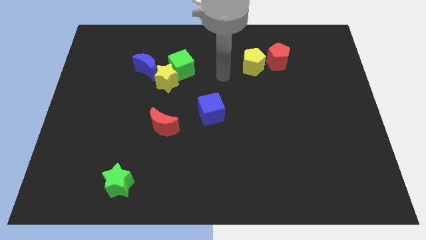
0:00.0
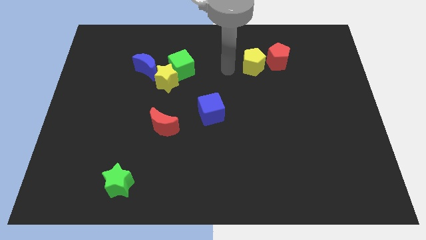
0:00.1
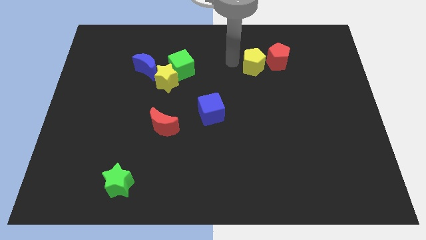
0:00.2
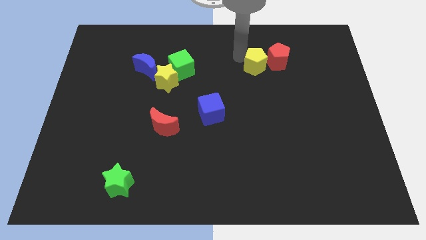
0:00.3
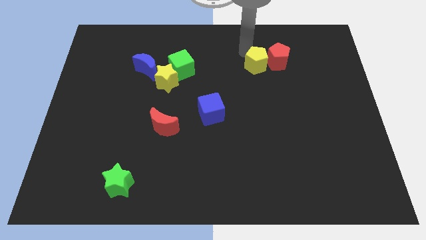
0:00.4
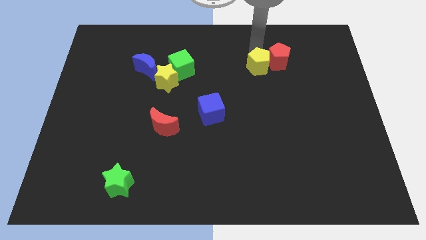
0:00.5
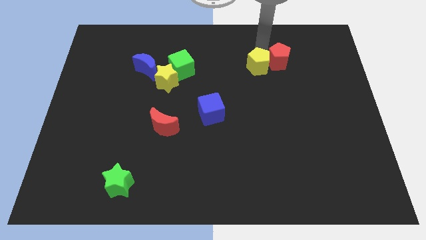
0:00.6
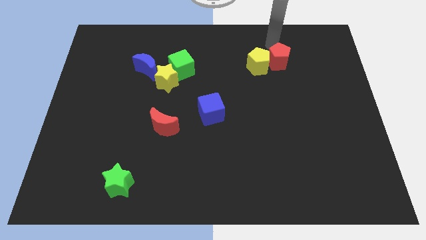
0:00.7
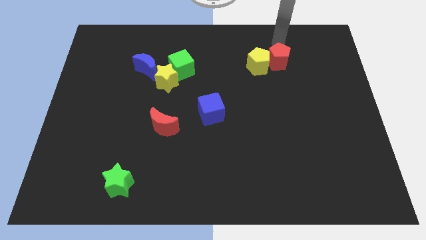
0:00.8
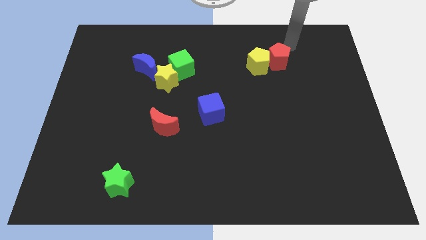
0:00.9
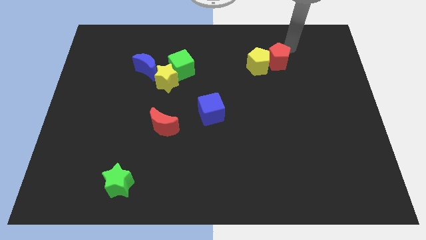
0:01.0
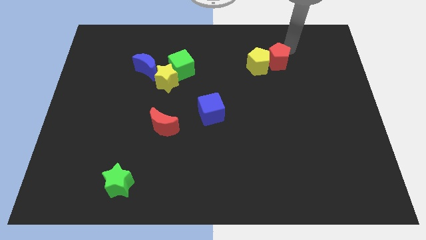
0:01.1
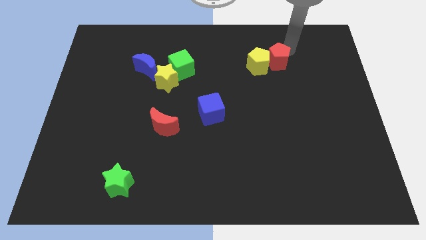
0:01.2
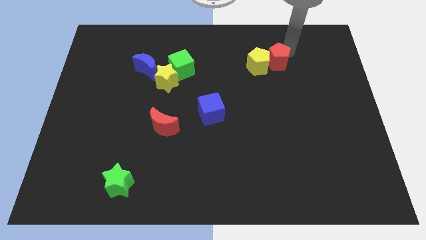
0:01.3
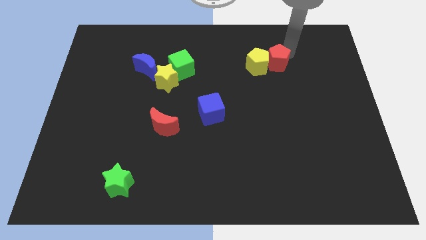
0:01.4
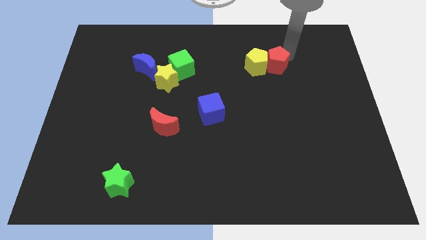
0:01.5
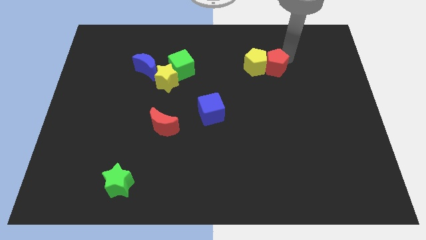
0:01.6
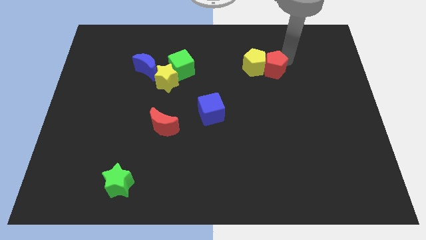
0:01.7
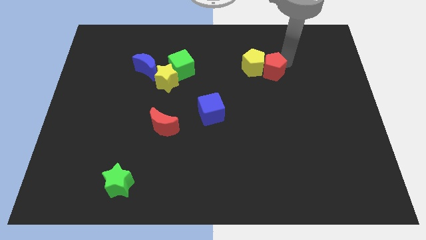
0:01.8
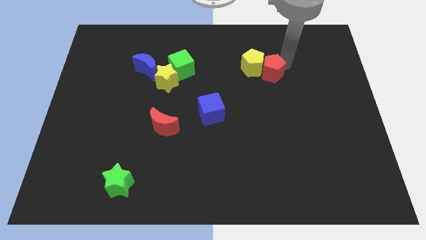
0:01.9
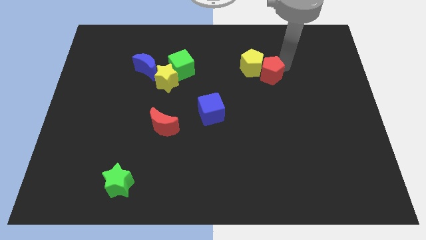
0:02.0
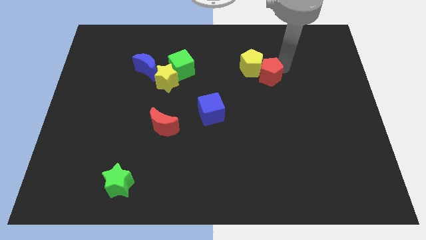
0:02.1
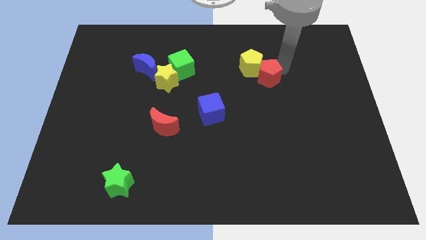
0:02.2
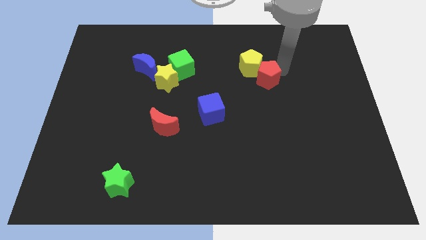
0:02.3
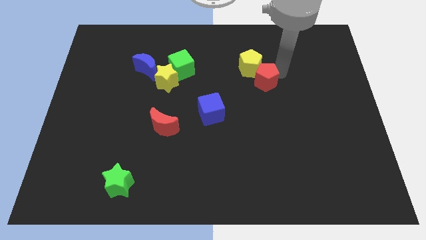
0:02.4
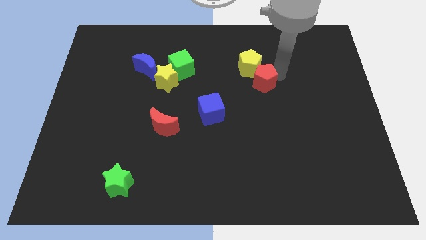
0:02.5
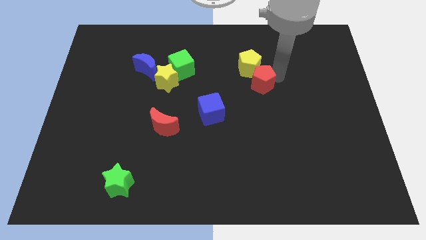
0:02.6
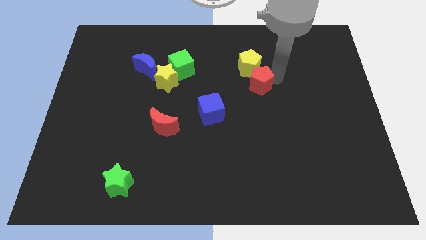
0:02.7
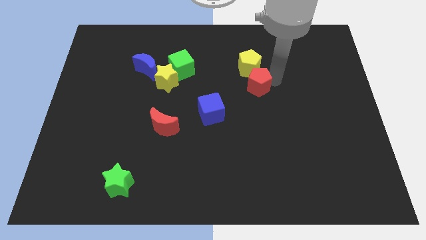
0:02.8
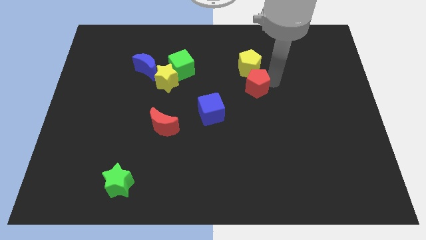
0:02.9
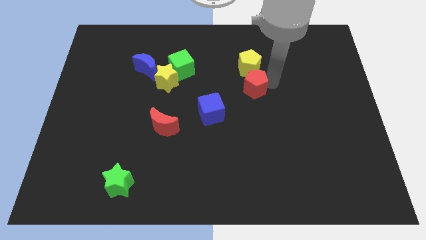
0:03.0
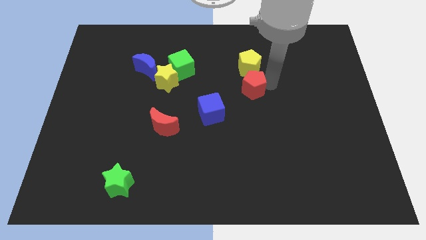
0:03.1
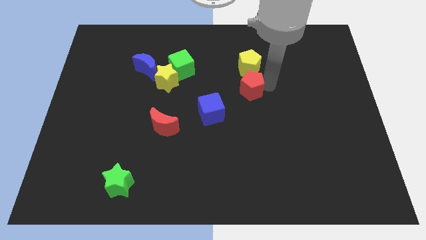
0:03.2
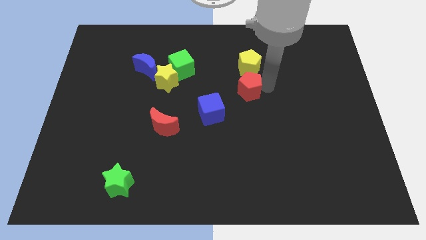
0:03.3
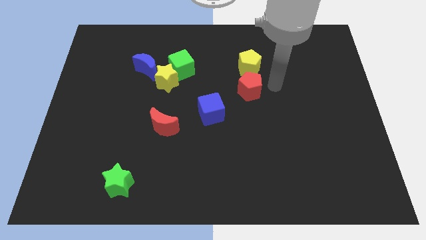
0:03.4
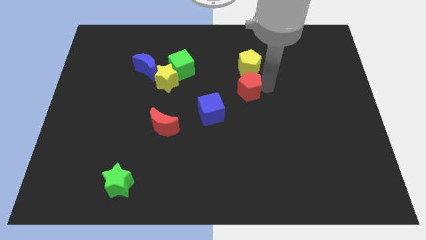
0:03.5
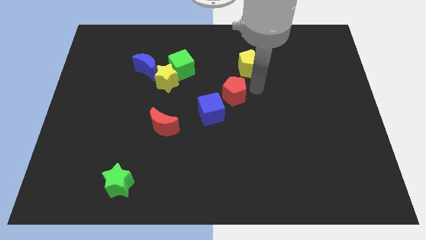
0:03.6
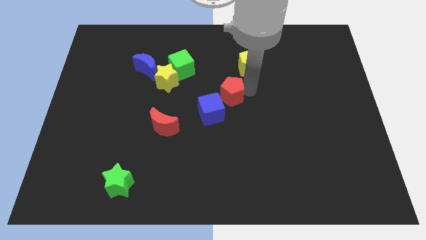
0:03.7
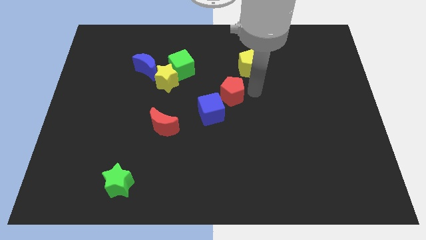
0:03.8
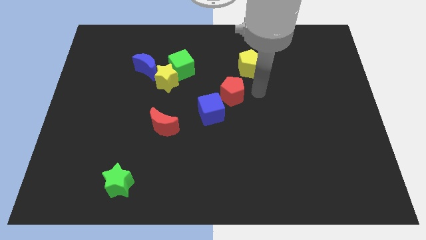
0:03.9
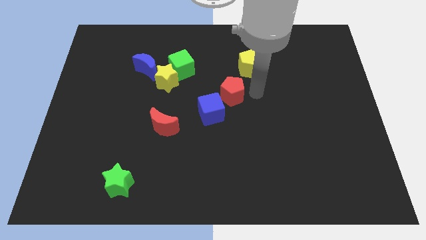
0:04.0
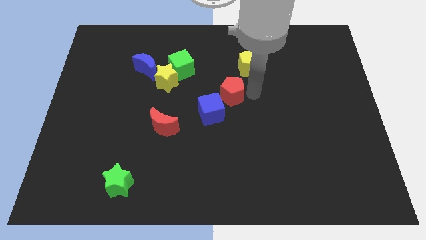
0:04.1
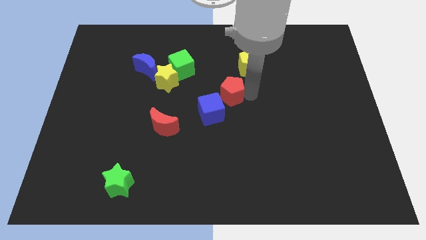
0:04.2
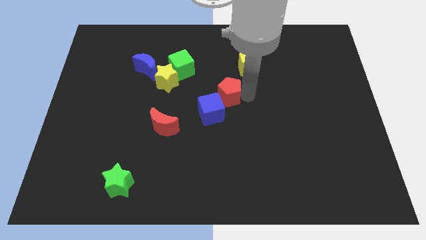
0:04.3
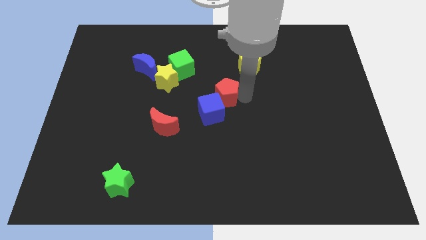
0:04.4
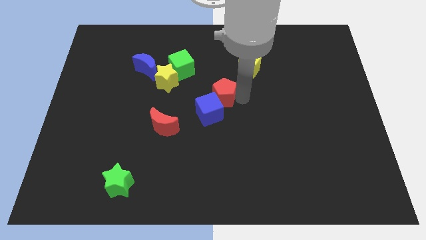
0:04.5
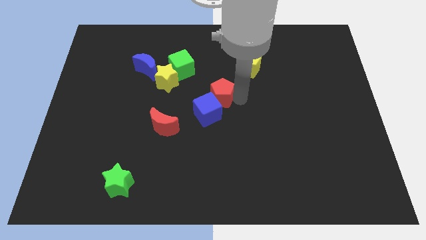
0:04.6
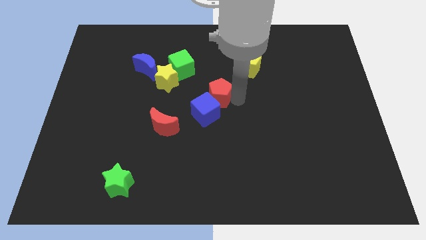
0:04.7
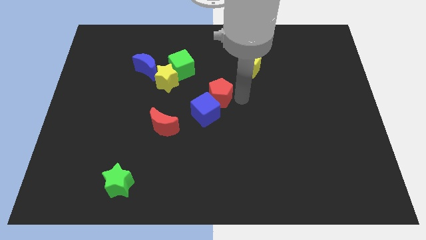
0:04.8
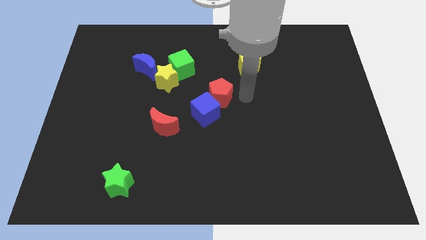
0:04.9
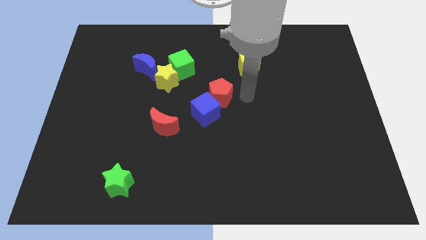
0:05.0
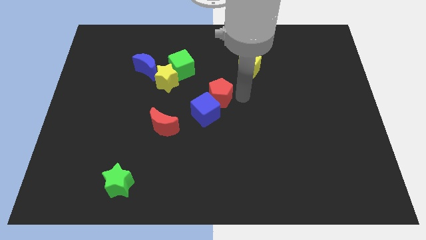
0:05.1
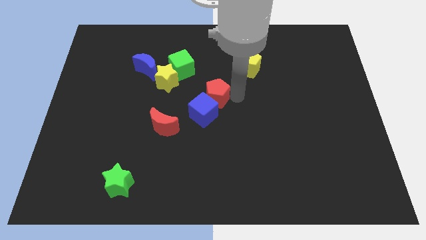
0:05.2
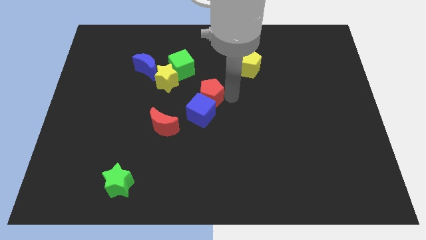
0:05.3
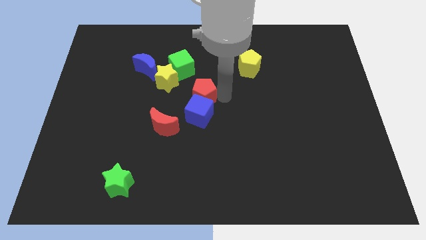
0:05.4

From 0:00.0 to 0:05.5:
push the red pentagon to the top left side of the blue cube

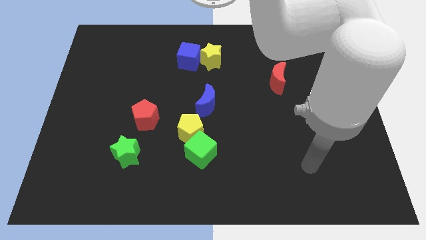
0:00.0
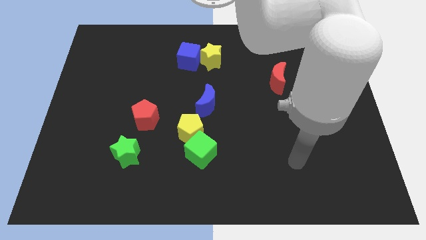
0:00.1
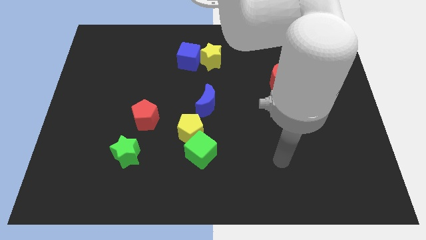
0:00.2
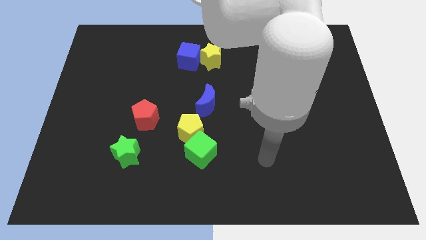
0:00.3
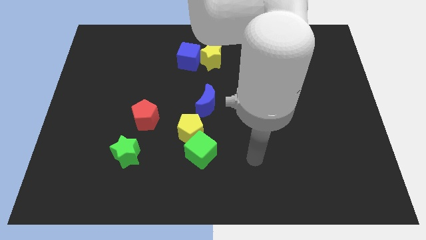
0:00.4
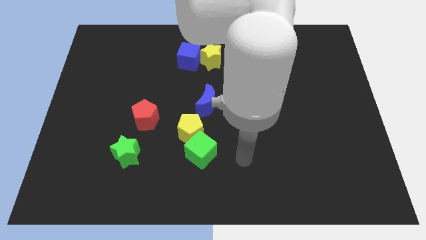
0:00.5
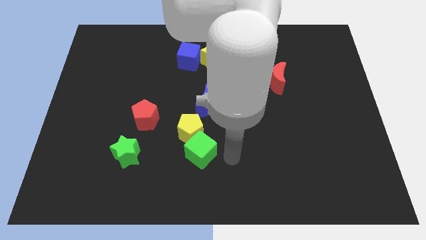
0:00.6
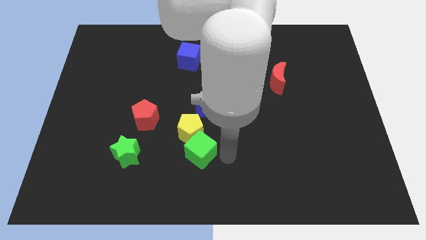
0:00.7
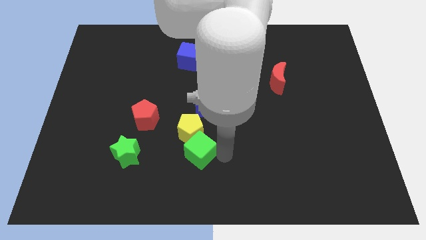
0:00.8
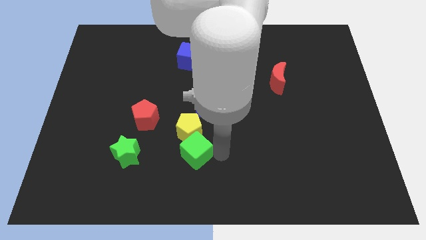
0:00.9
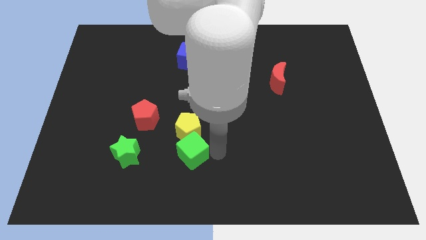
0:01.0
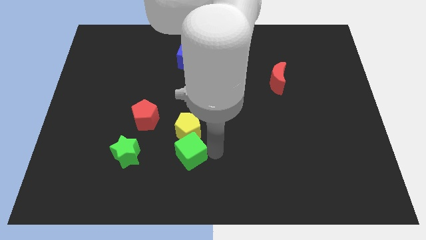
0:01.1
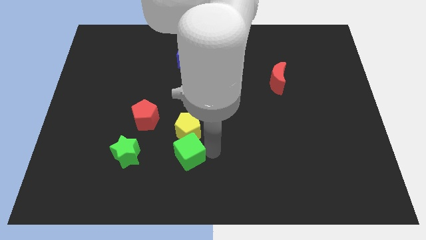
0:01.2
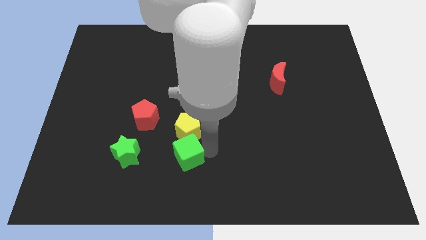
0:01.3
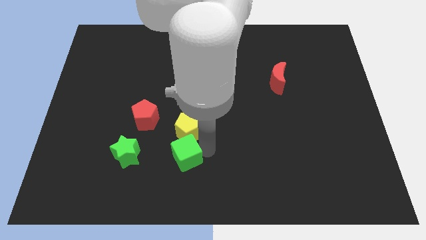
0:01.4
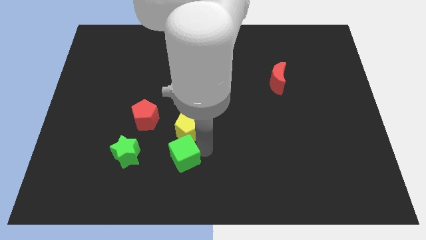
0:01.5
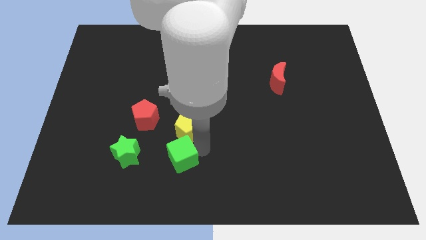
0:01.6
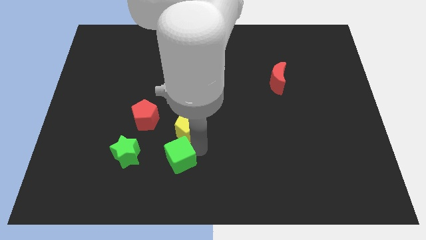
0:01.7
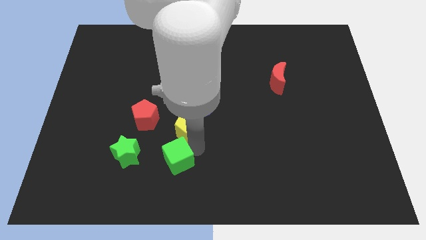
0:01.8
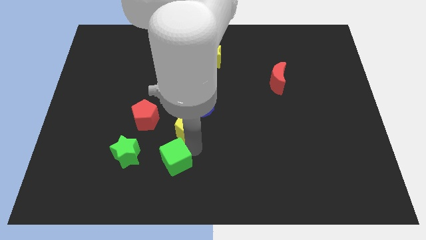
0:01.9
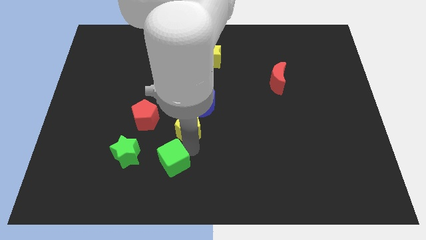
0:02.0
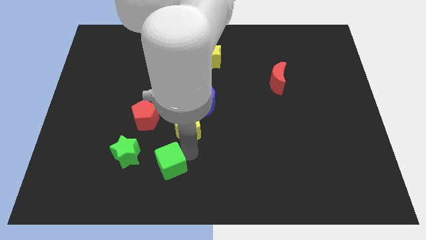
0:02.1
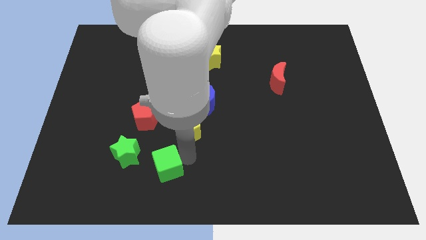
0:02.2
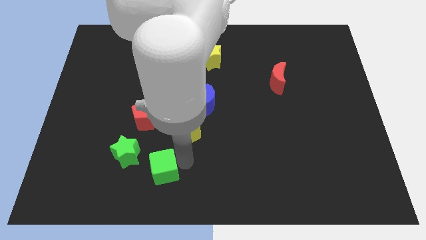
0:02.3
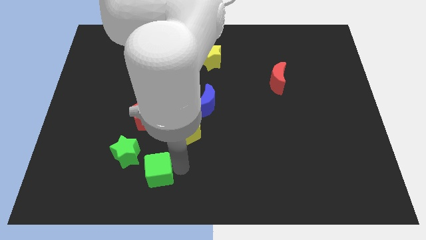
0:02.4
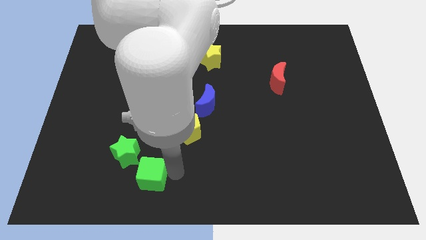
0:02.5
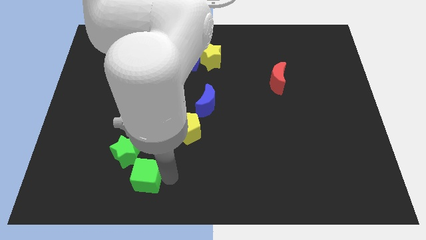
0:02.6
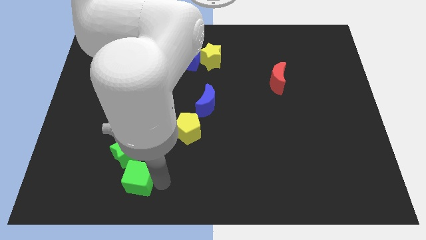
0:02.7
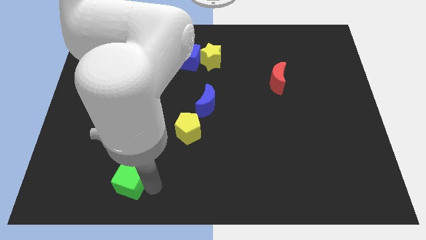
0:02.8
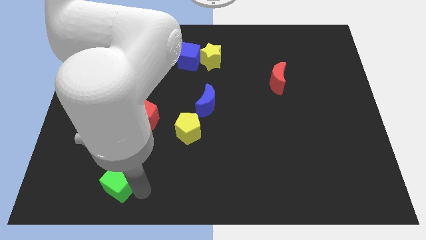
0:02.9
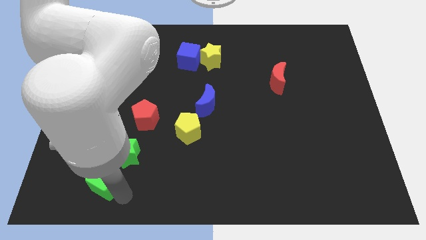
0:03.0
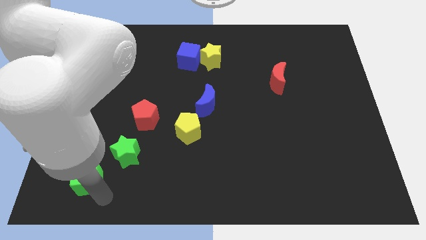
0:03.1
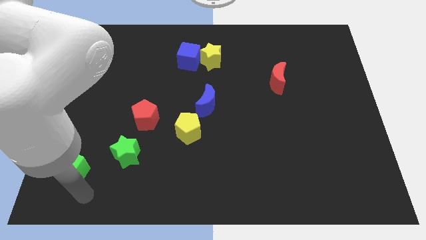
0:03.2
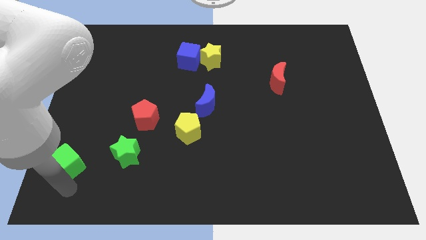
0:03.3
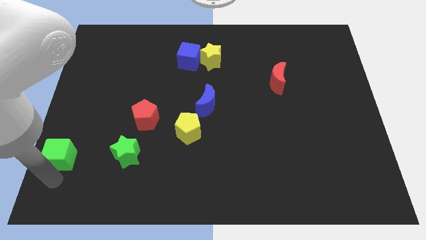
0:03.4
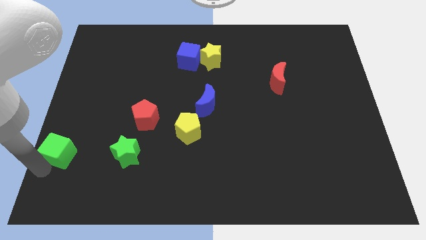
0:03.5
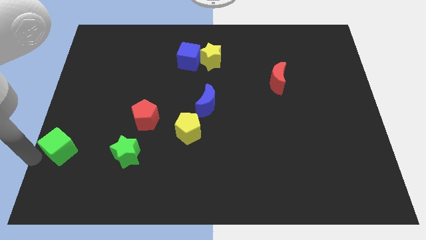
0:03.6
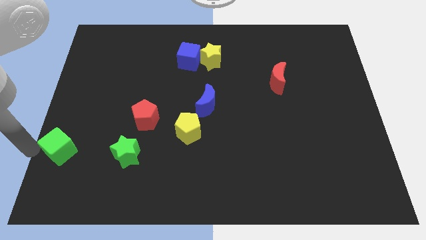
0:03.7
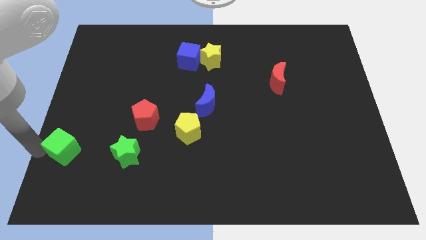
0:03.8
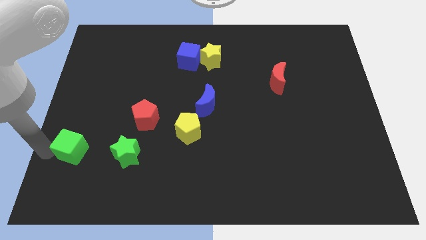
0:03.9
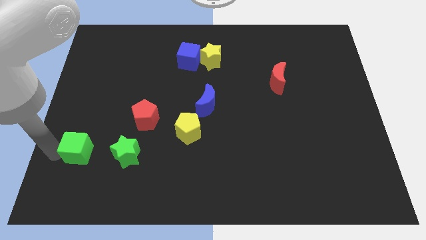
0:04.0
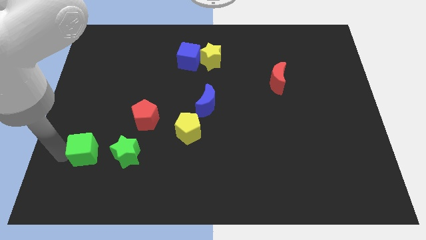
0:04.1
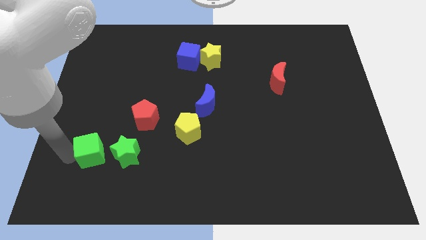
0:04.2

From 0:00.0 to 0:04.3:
slide the green cube diagonally up and to the left of the green star
